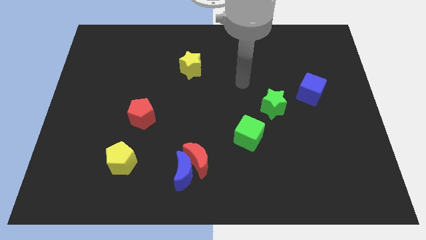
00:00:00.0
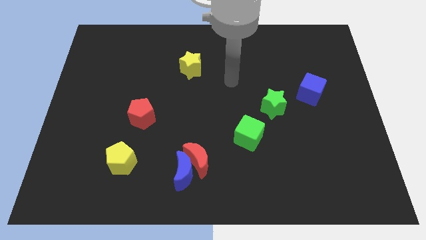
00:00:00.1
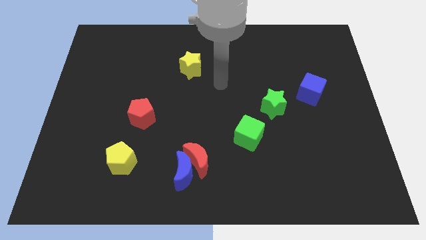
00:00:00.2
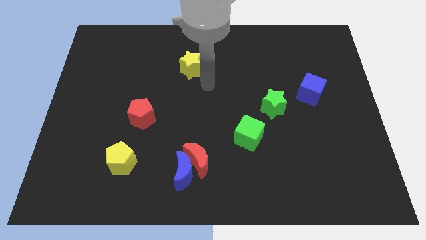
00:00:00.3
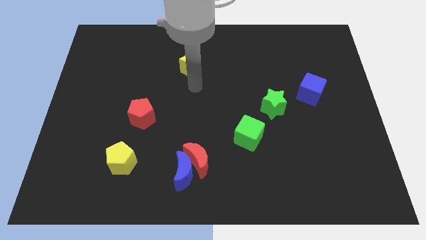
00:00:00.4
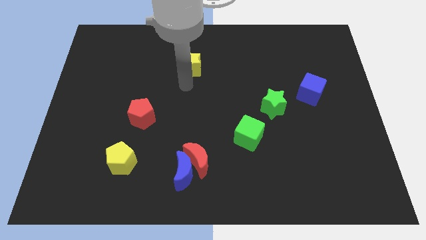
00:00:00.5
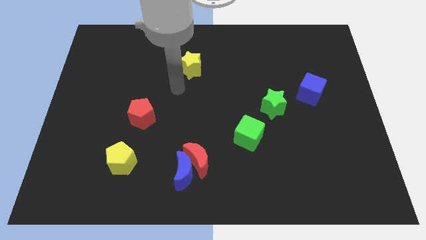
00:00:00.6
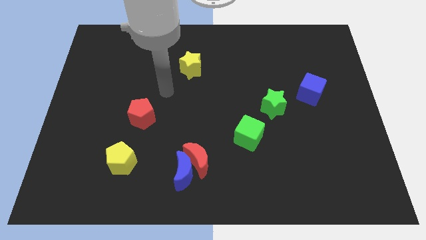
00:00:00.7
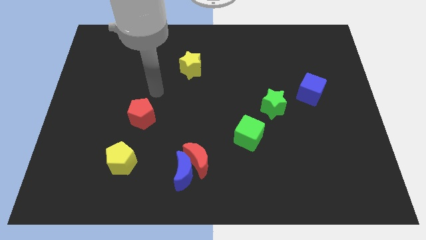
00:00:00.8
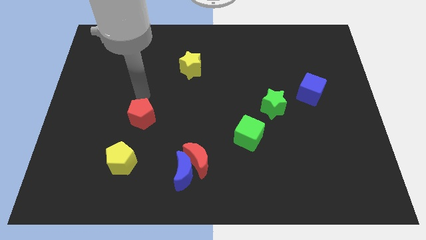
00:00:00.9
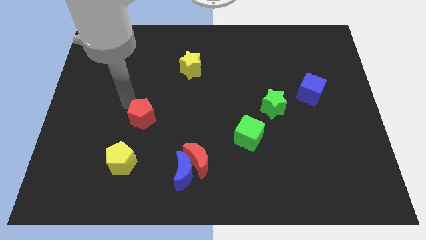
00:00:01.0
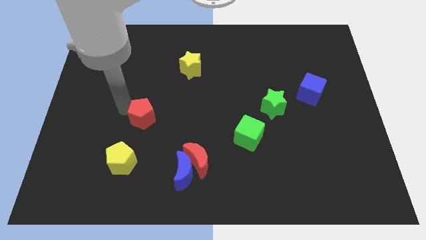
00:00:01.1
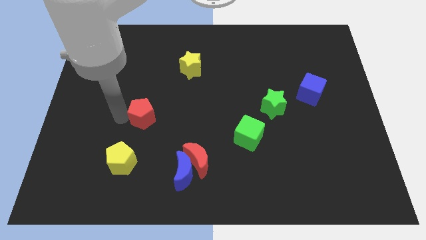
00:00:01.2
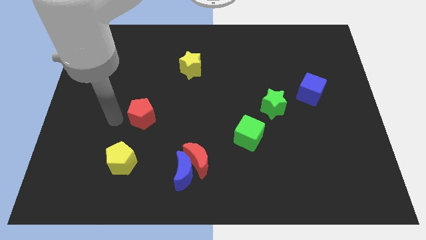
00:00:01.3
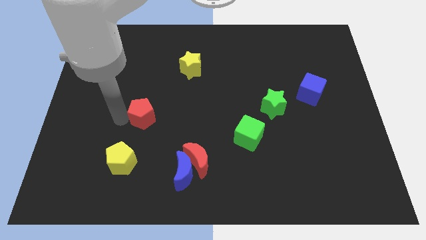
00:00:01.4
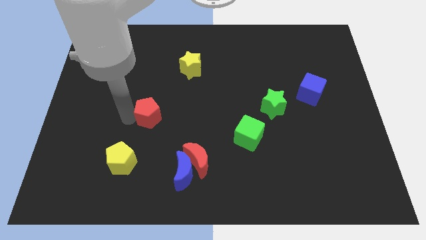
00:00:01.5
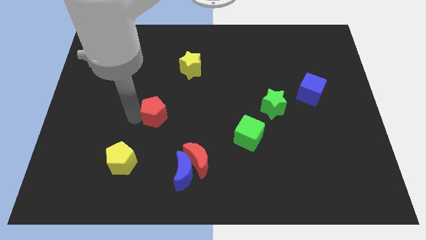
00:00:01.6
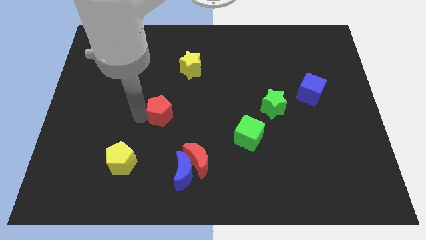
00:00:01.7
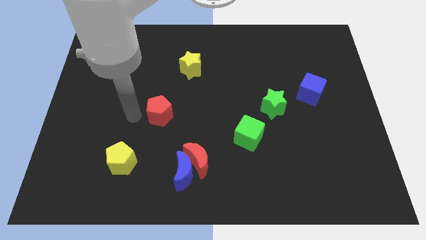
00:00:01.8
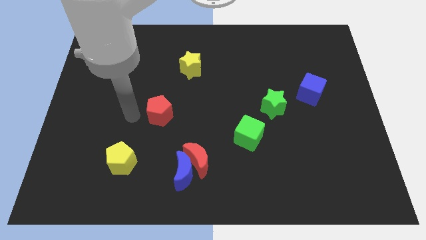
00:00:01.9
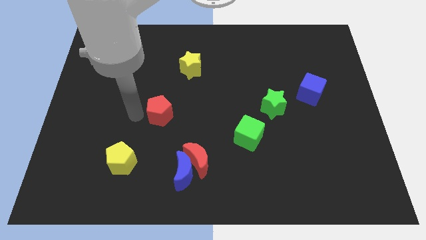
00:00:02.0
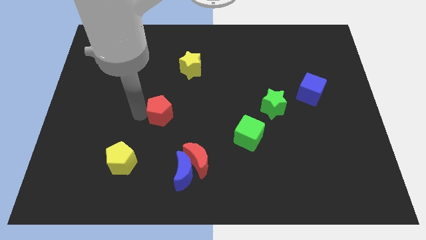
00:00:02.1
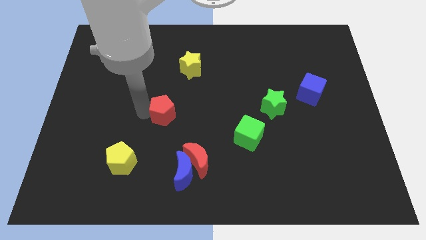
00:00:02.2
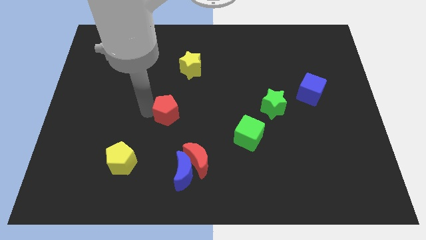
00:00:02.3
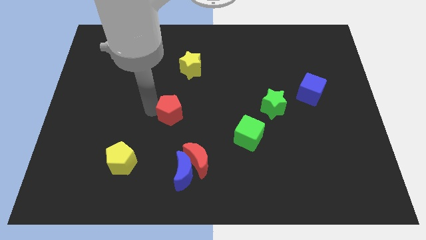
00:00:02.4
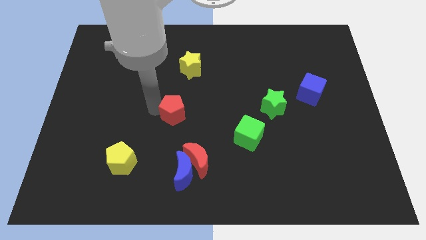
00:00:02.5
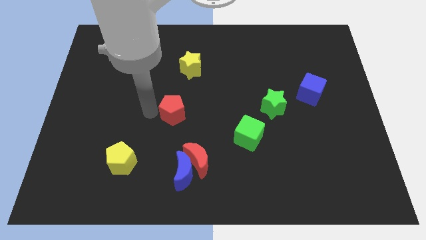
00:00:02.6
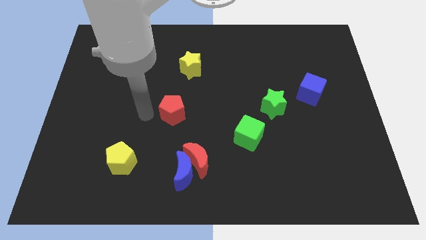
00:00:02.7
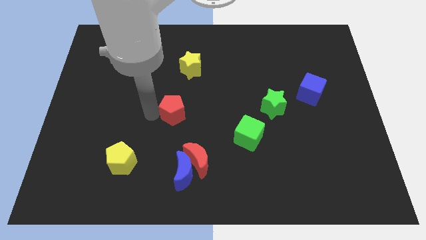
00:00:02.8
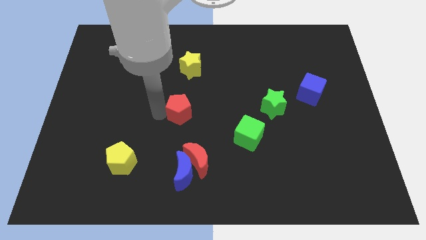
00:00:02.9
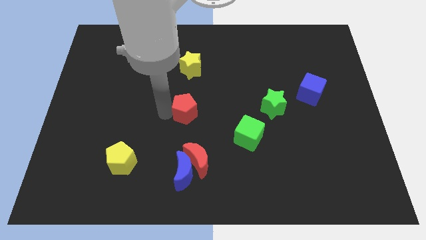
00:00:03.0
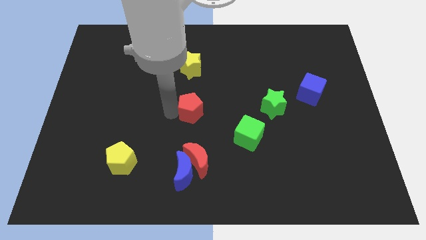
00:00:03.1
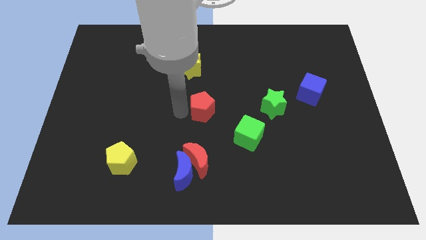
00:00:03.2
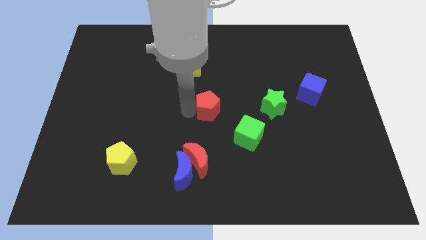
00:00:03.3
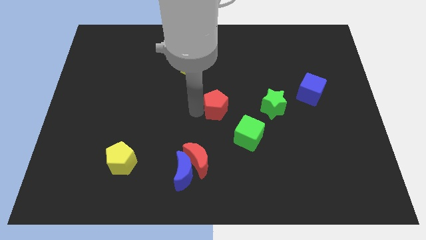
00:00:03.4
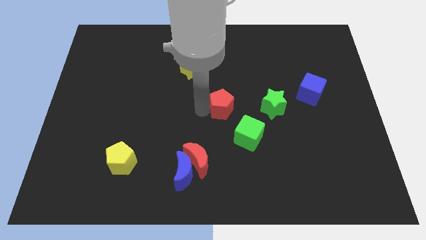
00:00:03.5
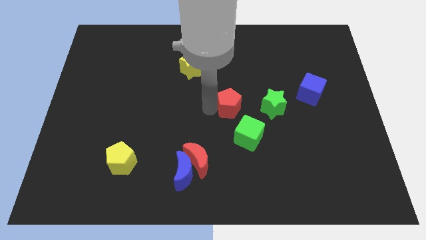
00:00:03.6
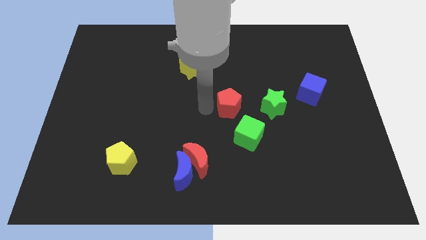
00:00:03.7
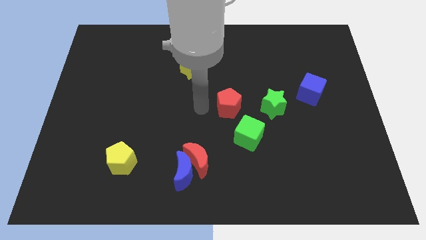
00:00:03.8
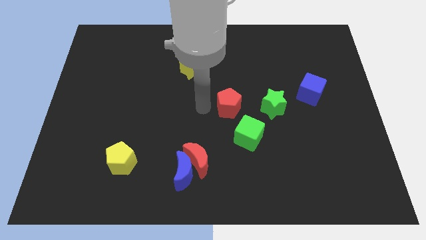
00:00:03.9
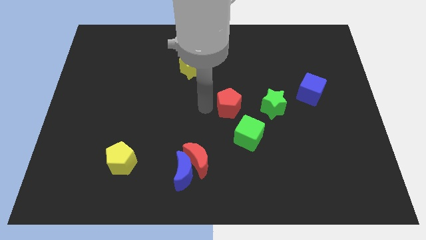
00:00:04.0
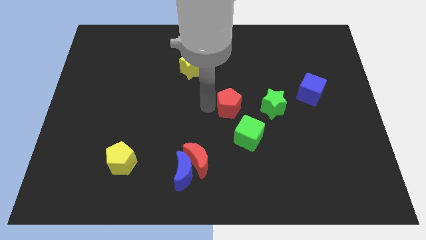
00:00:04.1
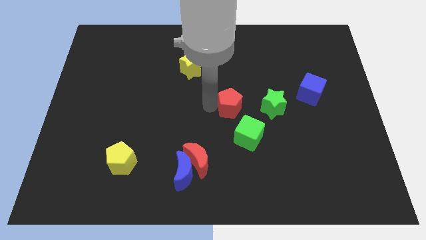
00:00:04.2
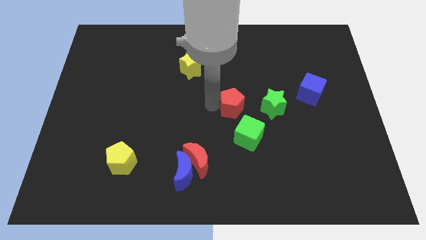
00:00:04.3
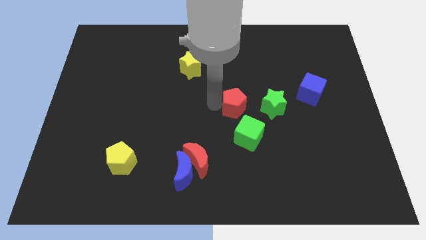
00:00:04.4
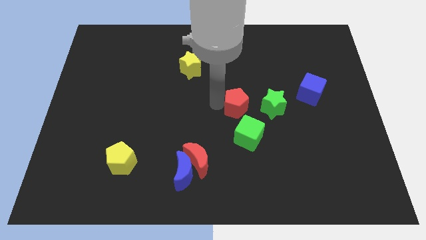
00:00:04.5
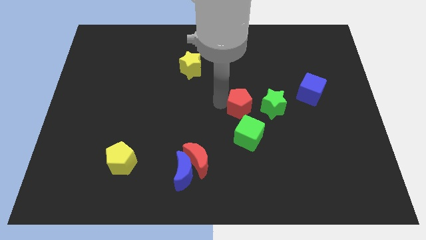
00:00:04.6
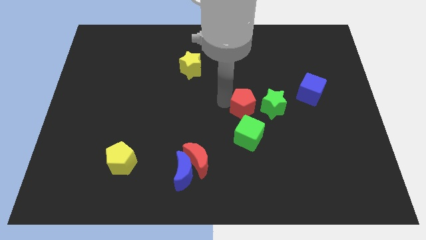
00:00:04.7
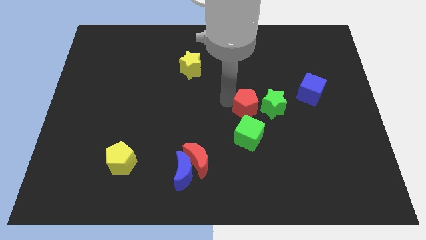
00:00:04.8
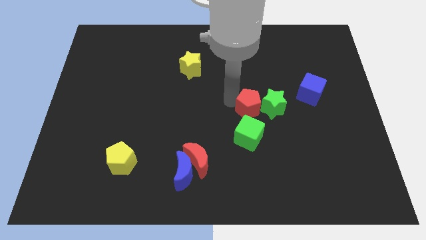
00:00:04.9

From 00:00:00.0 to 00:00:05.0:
push the red pentagon next to the green star

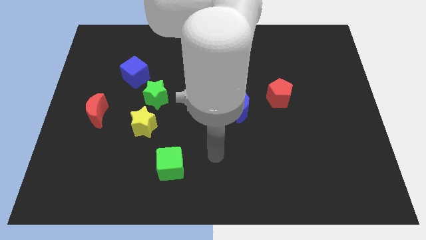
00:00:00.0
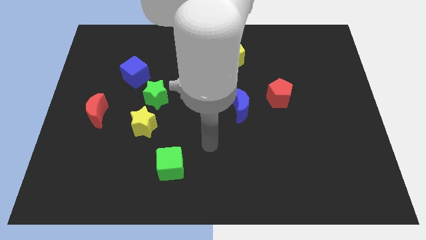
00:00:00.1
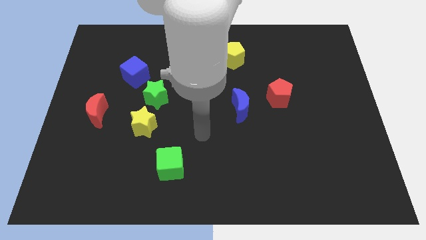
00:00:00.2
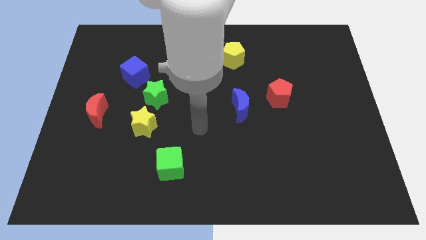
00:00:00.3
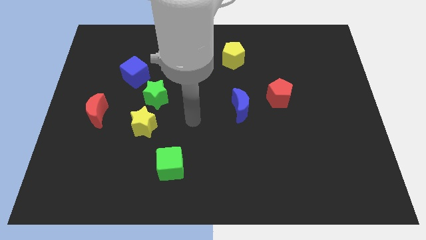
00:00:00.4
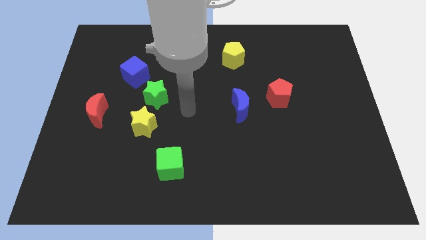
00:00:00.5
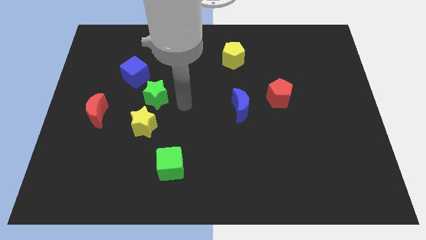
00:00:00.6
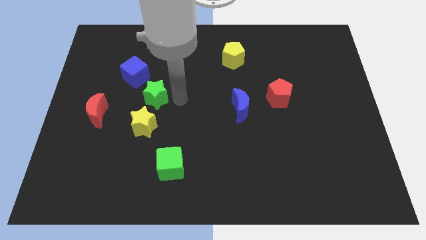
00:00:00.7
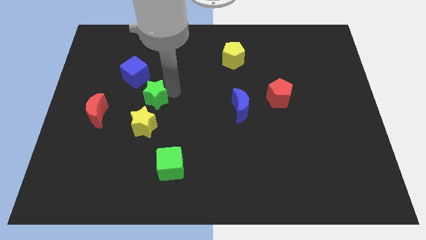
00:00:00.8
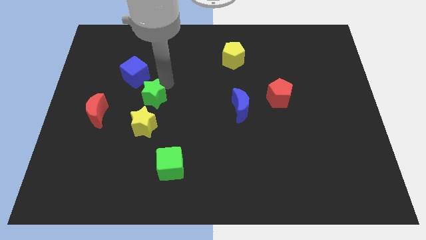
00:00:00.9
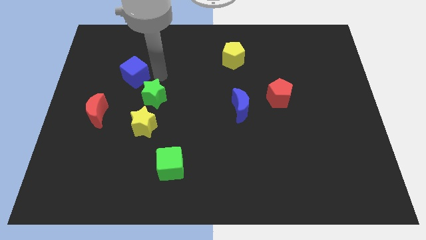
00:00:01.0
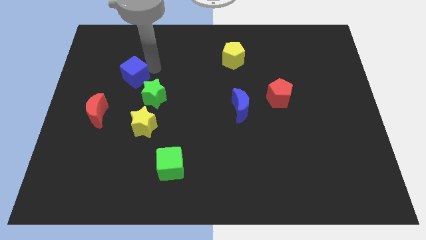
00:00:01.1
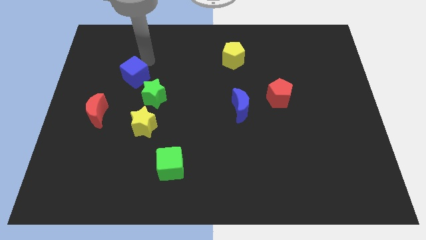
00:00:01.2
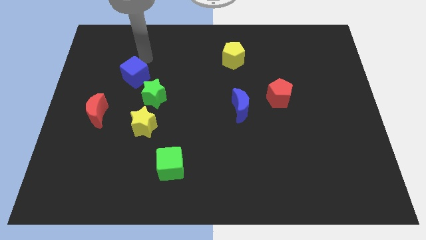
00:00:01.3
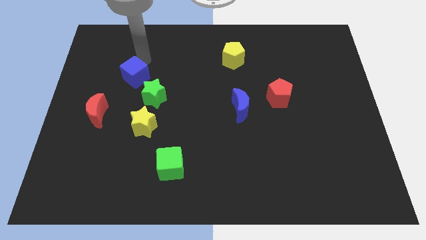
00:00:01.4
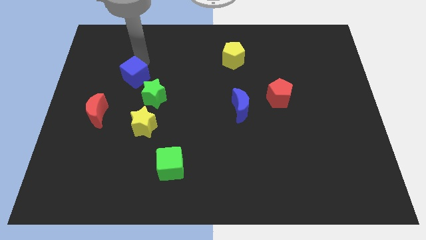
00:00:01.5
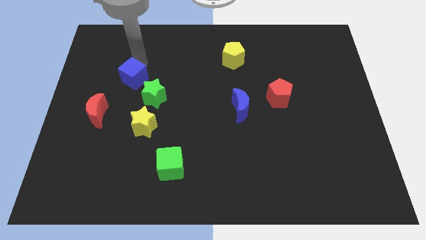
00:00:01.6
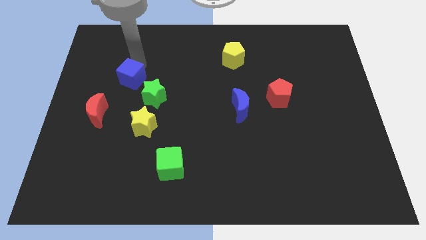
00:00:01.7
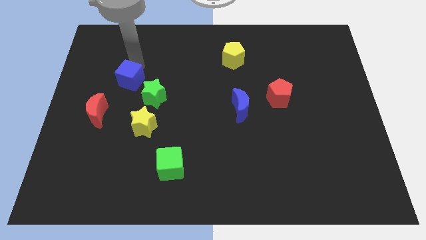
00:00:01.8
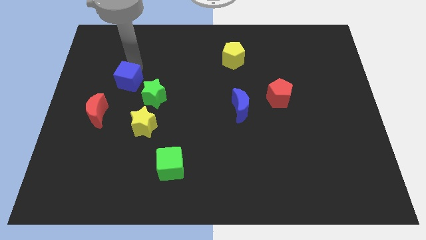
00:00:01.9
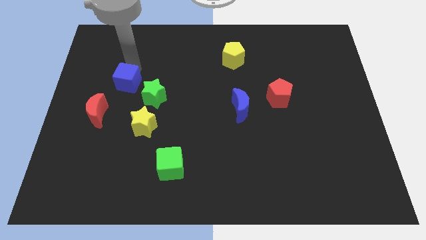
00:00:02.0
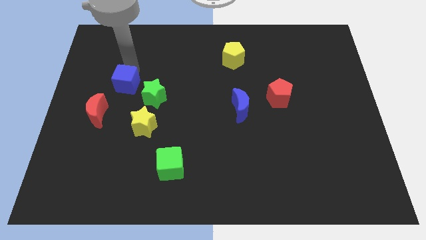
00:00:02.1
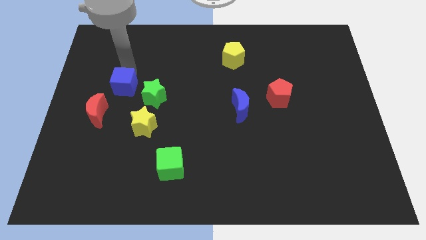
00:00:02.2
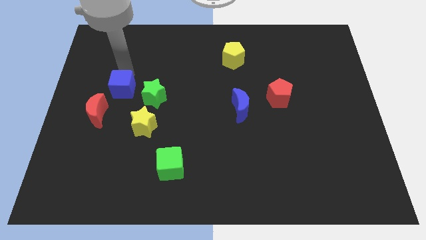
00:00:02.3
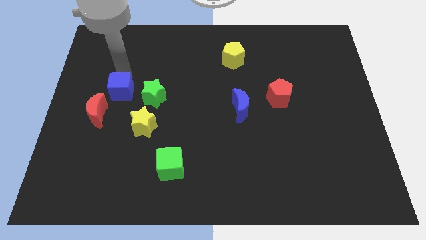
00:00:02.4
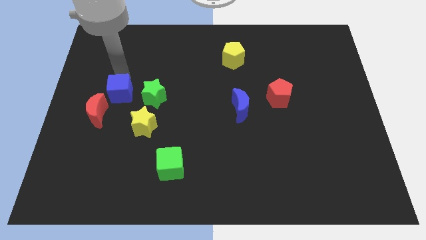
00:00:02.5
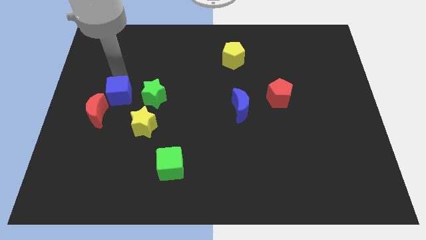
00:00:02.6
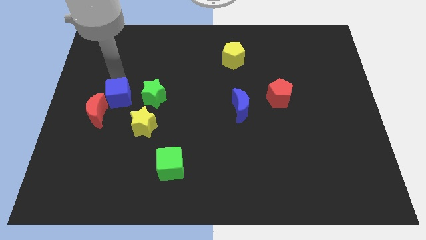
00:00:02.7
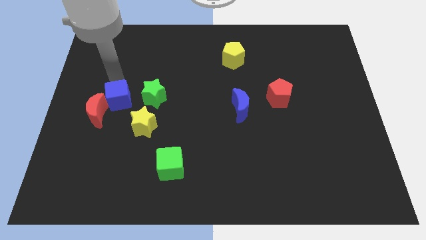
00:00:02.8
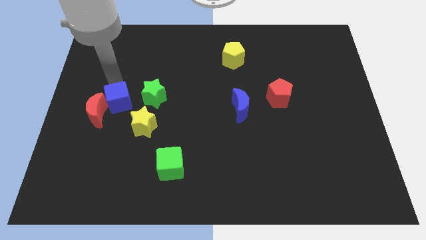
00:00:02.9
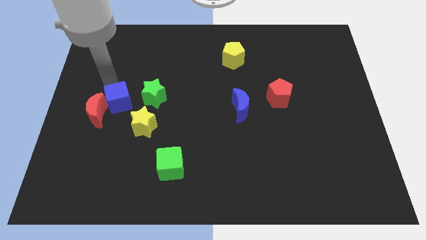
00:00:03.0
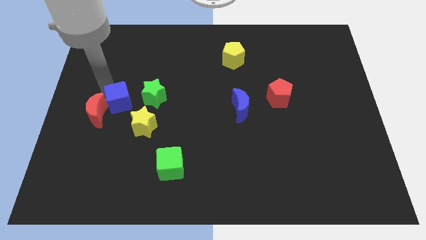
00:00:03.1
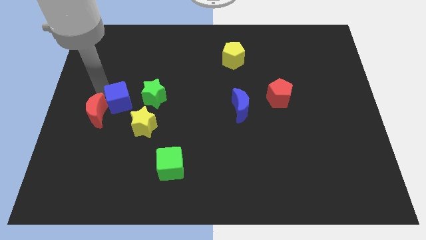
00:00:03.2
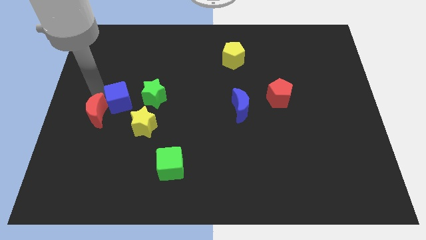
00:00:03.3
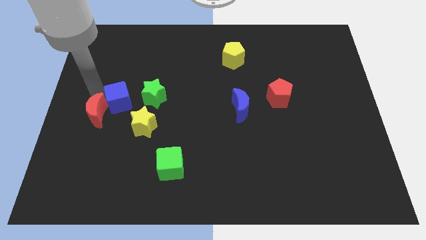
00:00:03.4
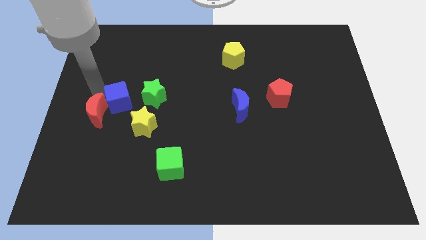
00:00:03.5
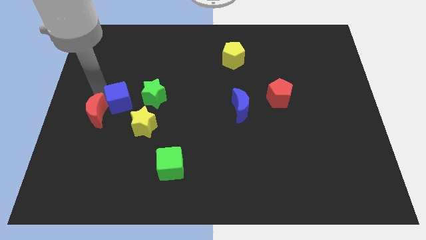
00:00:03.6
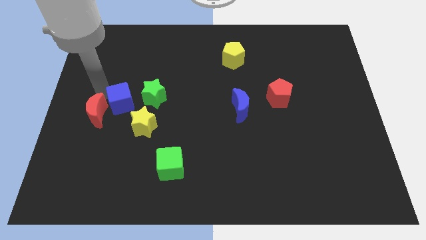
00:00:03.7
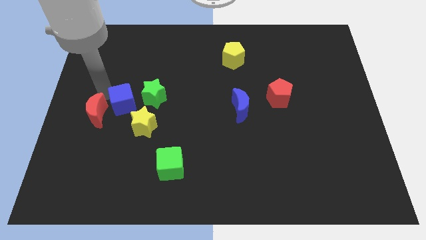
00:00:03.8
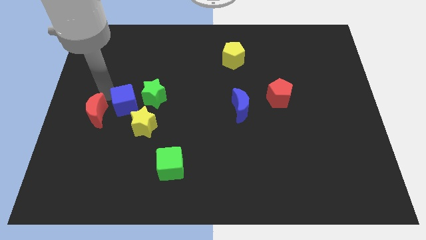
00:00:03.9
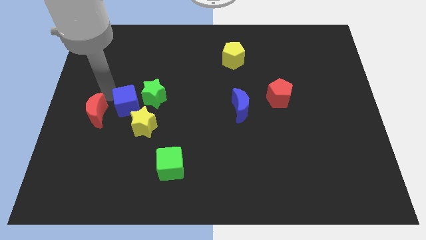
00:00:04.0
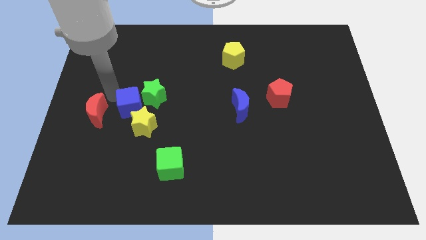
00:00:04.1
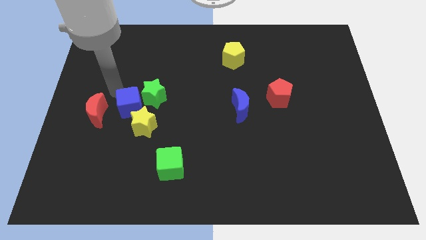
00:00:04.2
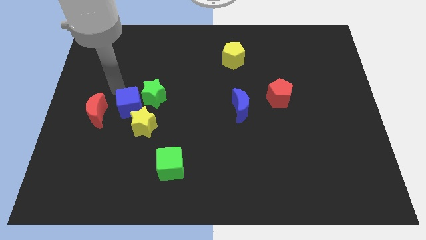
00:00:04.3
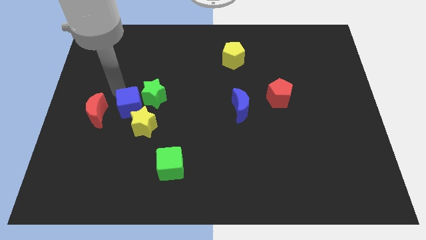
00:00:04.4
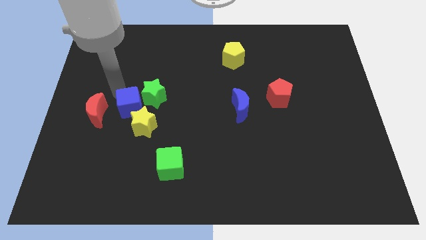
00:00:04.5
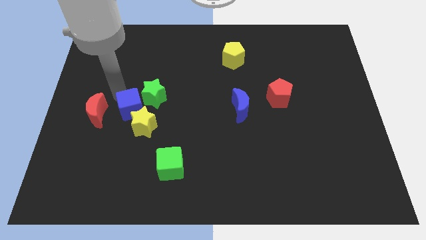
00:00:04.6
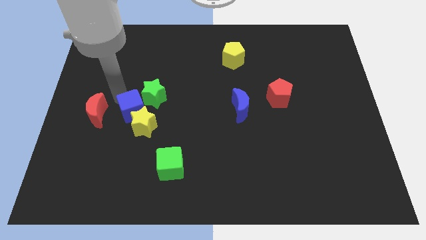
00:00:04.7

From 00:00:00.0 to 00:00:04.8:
move the blue cube to the yellow star
